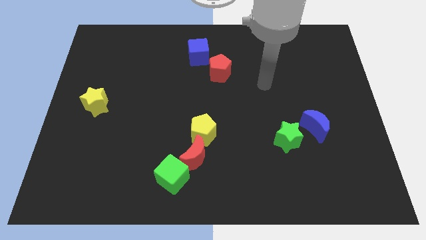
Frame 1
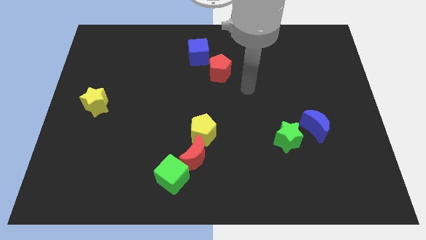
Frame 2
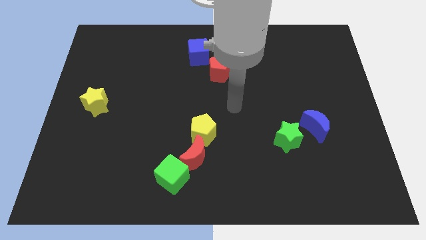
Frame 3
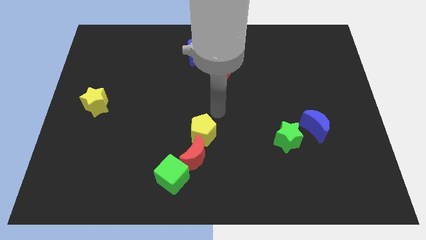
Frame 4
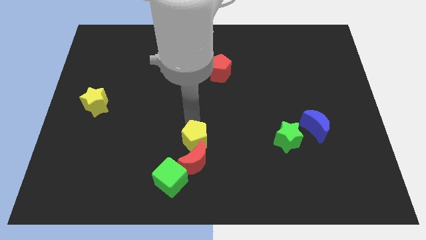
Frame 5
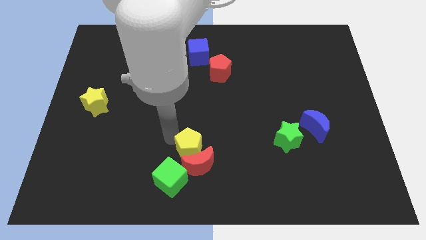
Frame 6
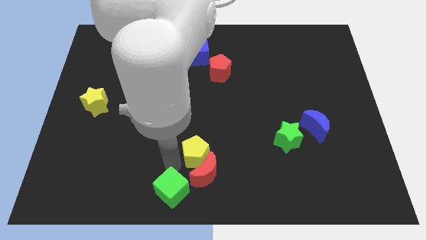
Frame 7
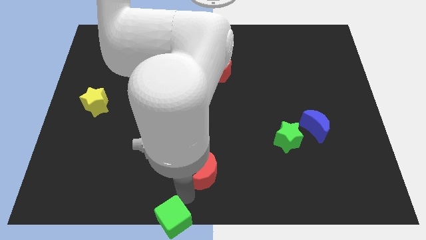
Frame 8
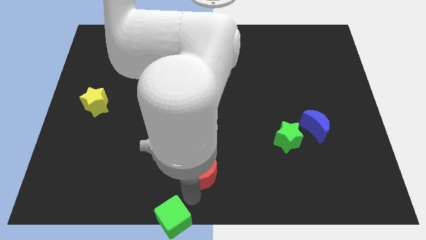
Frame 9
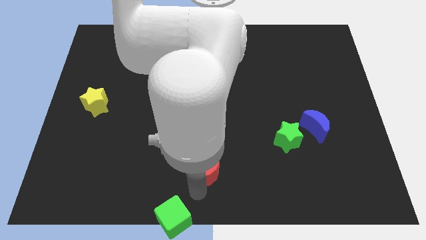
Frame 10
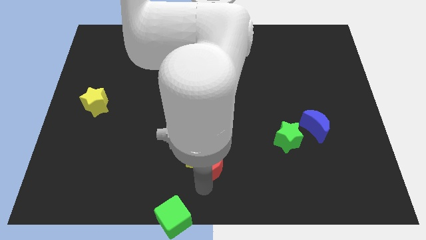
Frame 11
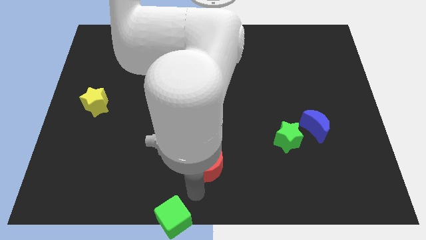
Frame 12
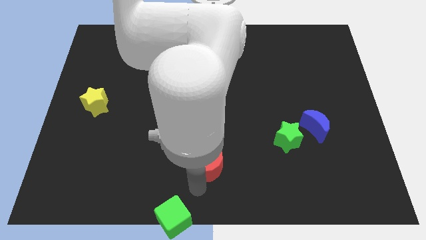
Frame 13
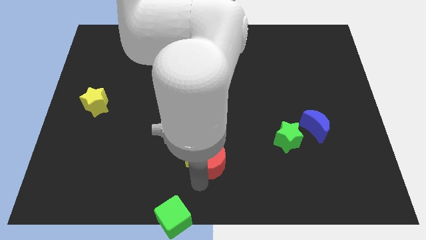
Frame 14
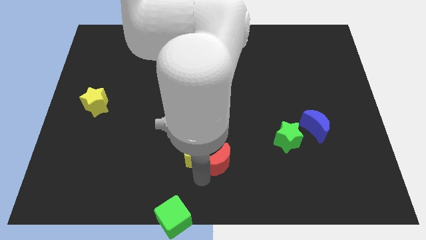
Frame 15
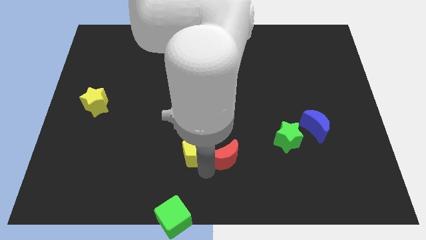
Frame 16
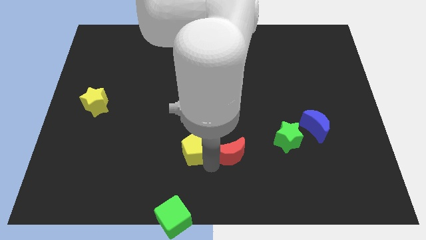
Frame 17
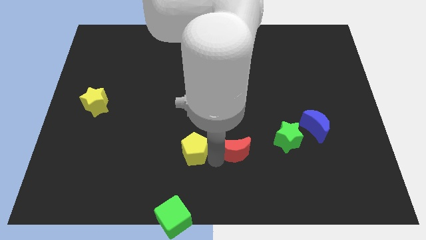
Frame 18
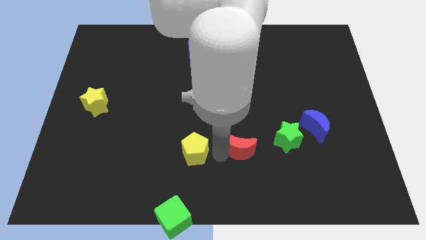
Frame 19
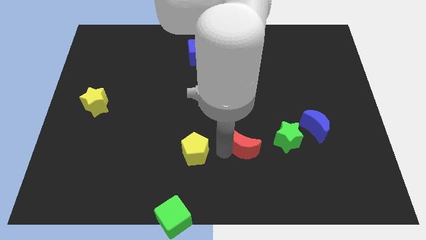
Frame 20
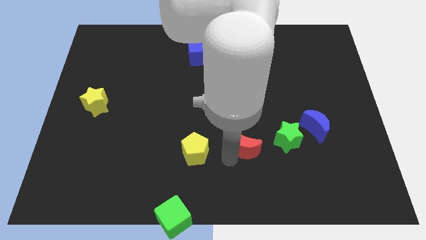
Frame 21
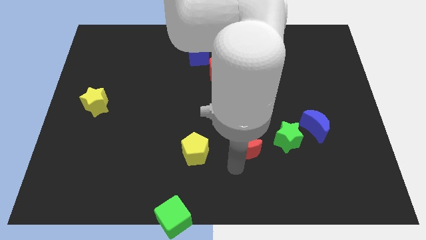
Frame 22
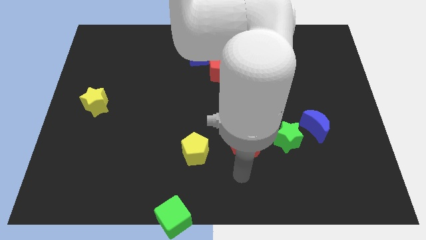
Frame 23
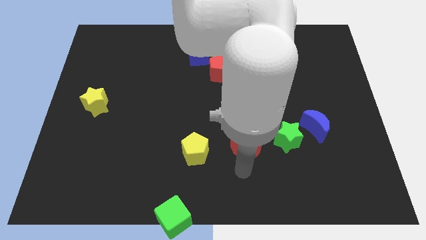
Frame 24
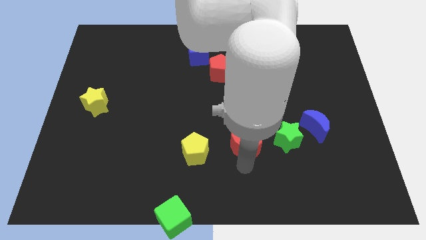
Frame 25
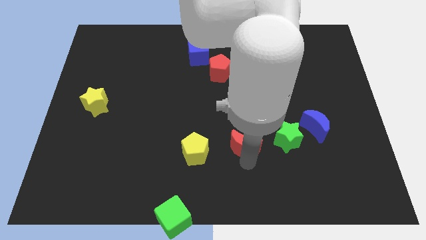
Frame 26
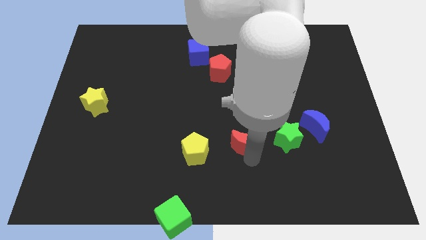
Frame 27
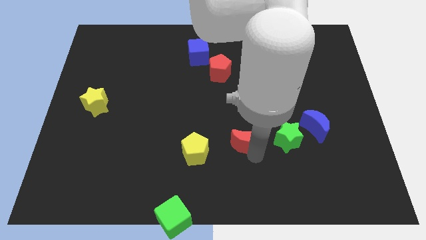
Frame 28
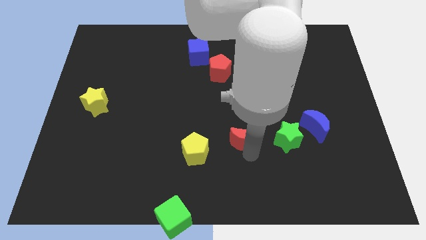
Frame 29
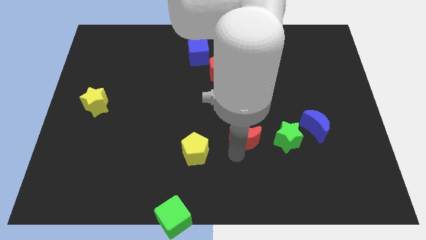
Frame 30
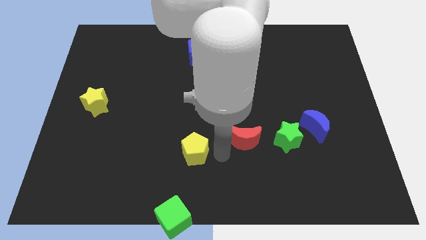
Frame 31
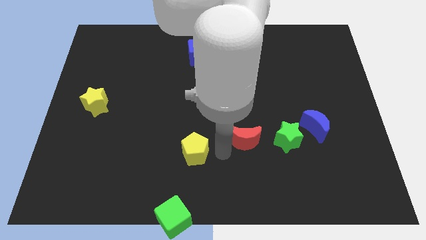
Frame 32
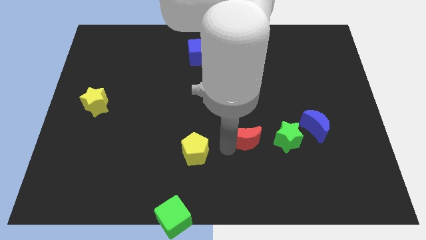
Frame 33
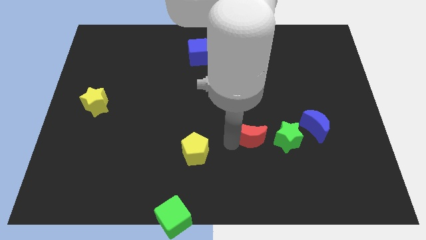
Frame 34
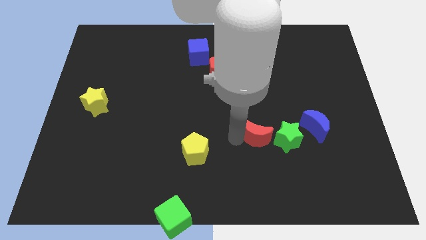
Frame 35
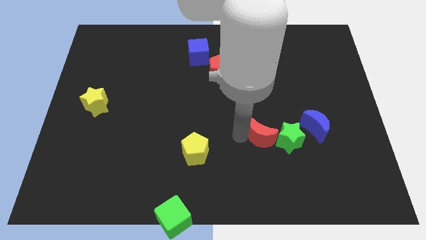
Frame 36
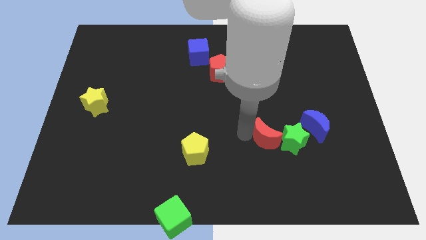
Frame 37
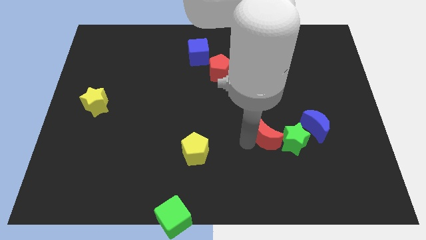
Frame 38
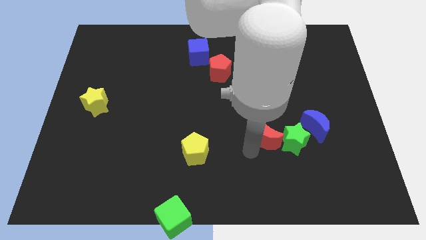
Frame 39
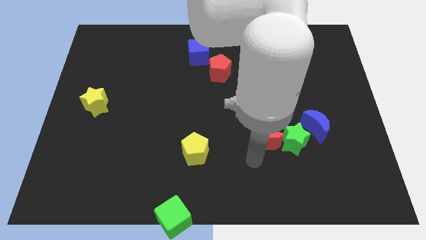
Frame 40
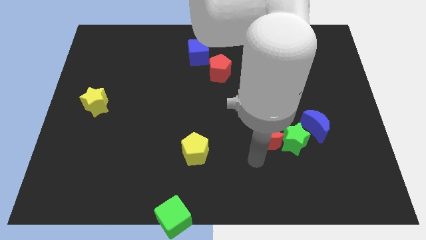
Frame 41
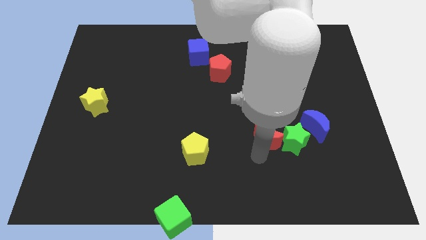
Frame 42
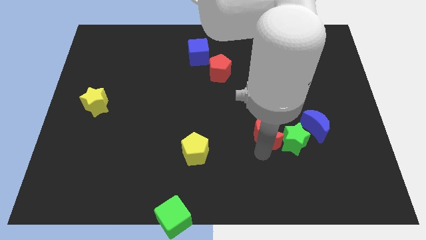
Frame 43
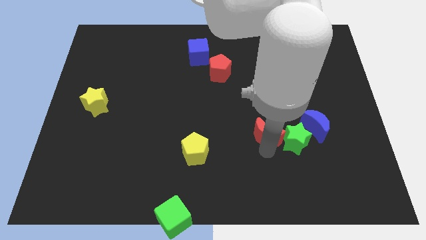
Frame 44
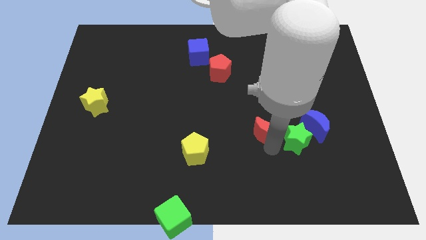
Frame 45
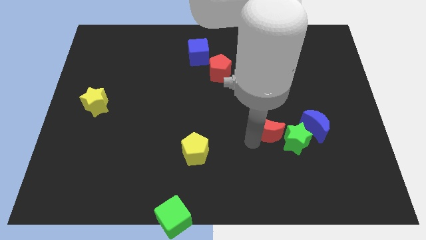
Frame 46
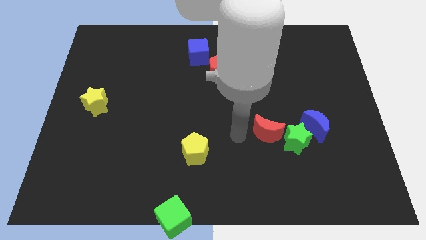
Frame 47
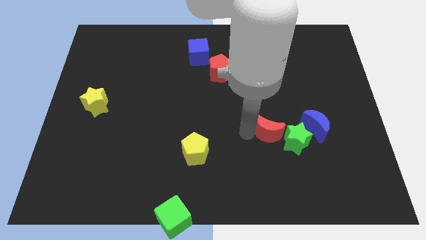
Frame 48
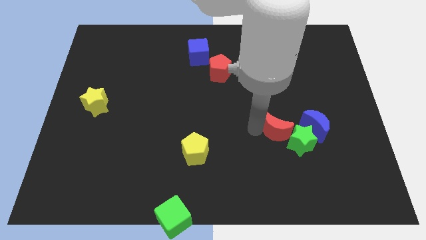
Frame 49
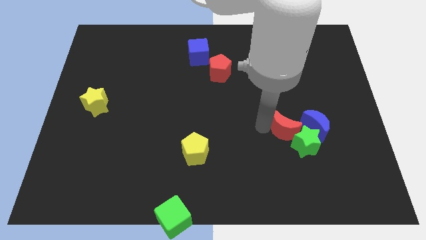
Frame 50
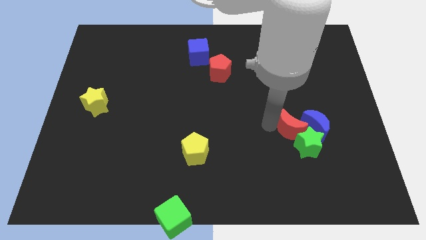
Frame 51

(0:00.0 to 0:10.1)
put the red moon towards the blue moon

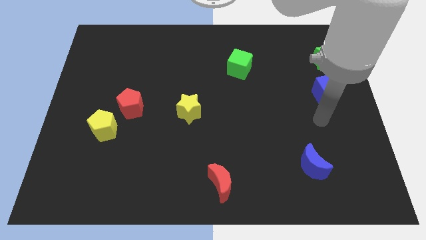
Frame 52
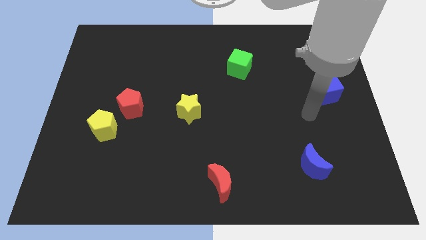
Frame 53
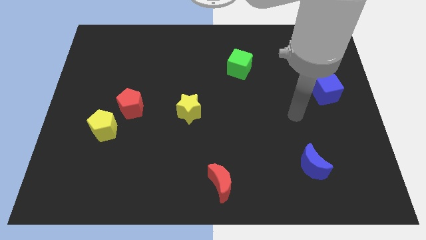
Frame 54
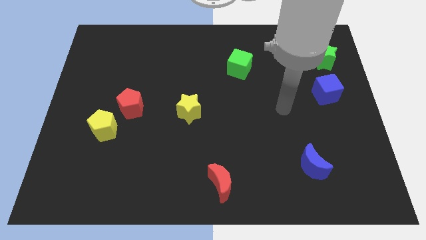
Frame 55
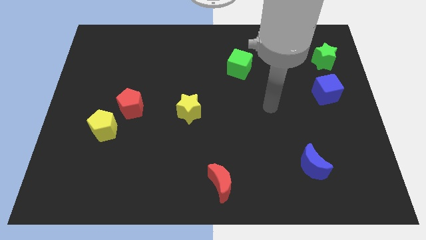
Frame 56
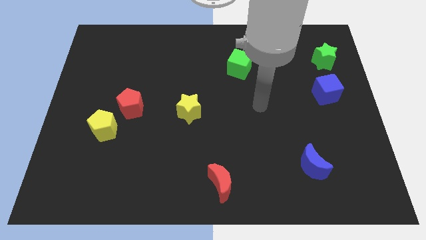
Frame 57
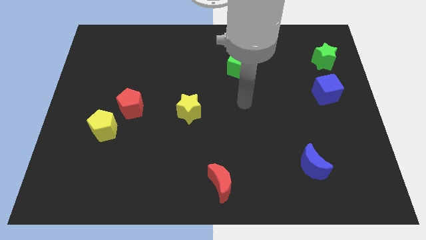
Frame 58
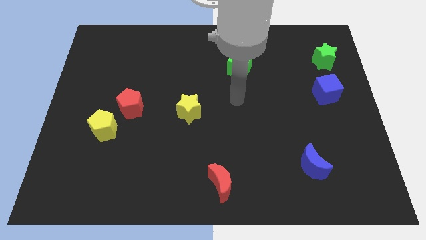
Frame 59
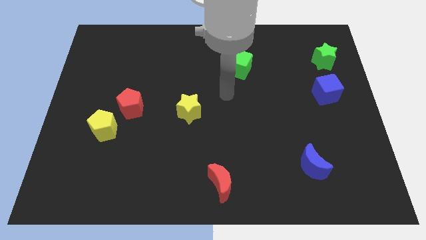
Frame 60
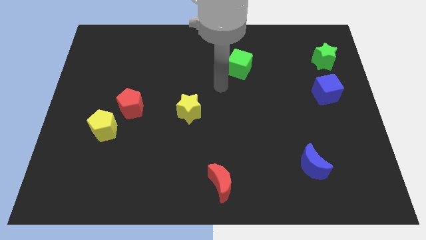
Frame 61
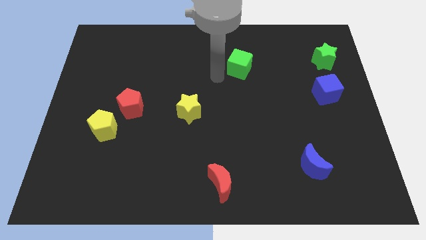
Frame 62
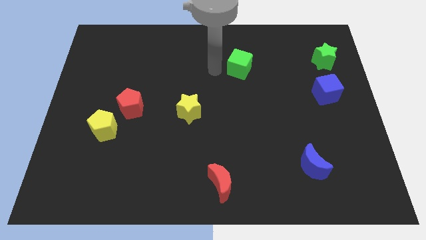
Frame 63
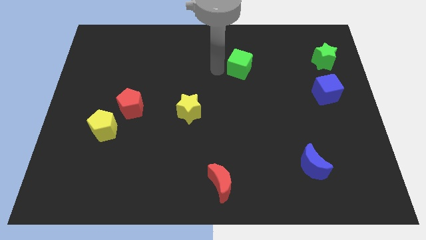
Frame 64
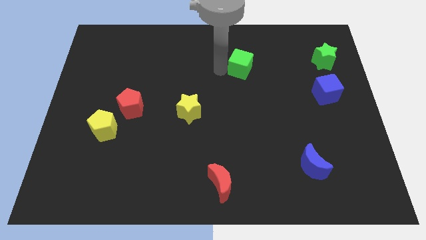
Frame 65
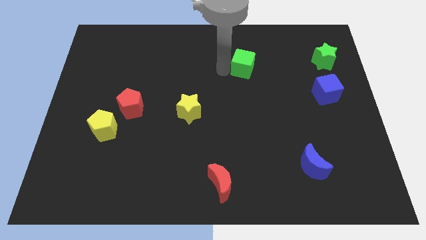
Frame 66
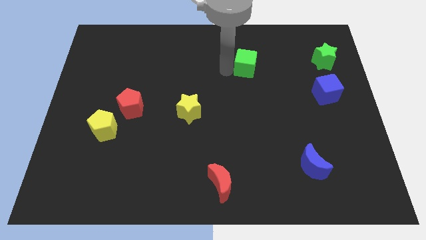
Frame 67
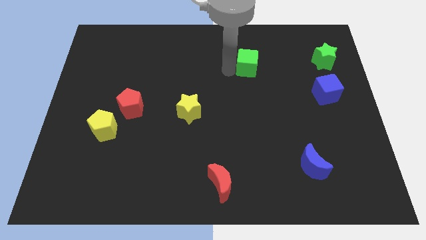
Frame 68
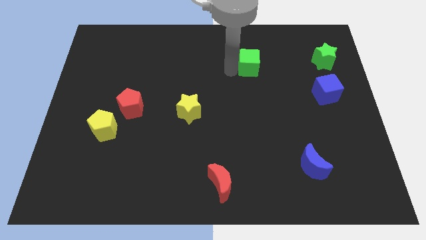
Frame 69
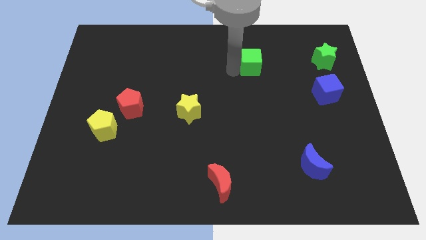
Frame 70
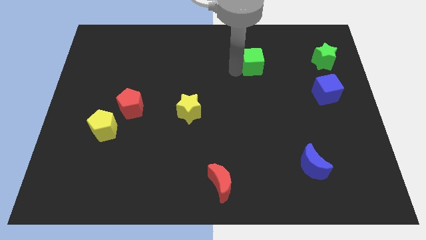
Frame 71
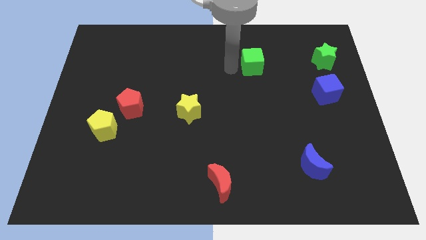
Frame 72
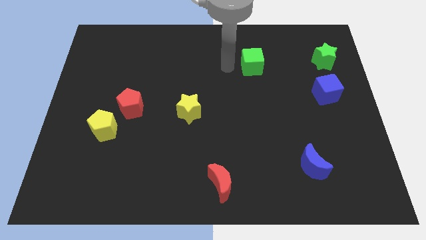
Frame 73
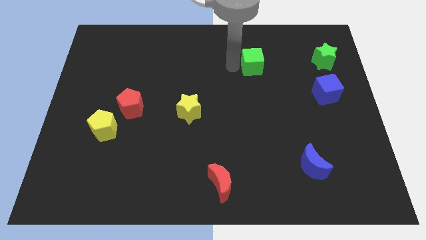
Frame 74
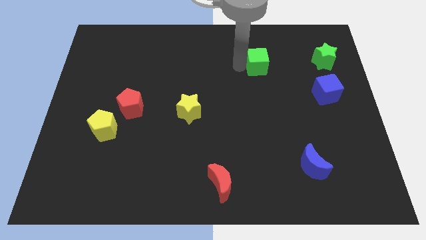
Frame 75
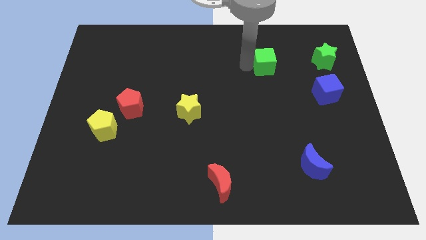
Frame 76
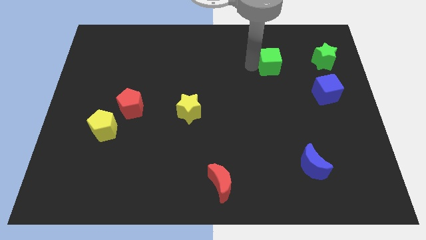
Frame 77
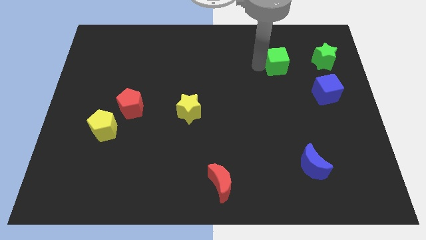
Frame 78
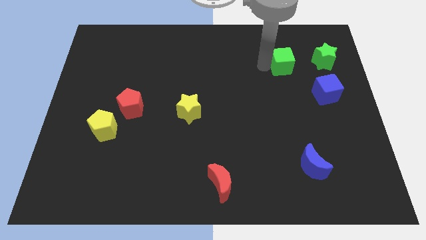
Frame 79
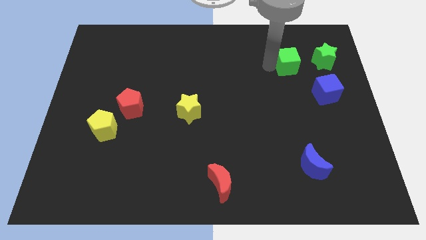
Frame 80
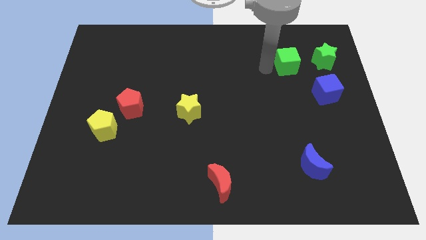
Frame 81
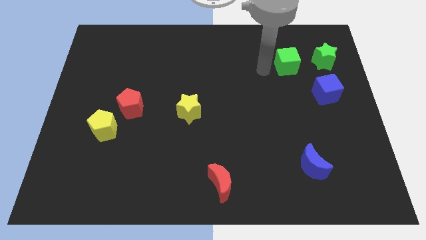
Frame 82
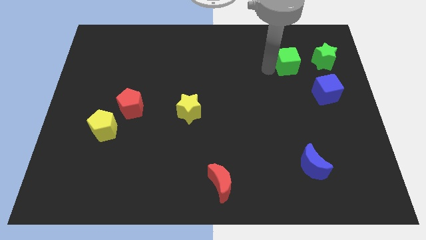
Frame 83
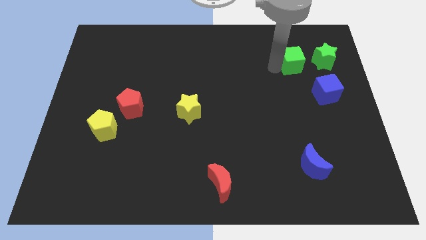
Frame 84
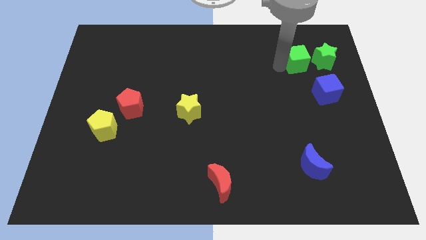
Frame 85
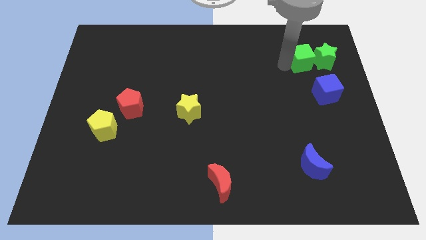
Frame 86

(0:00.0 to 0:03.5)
move the green cube close to the green star
